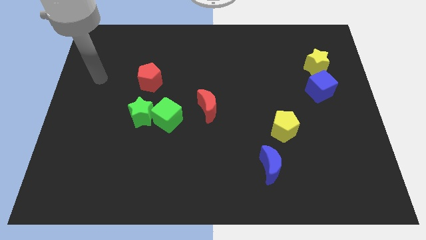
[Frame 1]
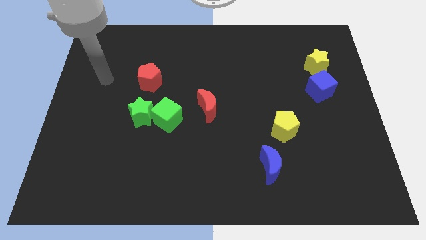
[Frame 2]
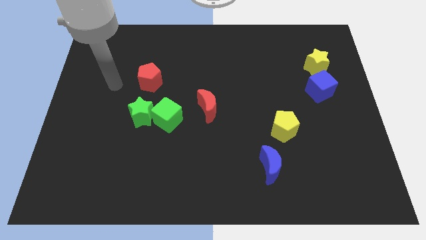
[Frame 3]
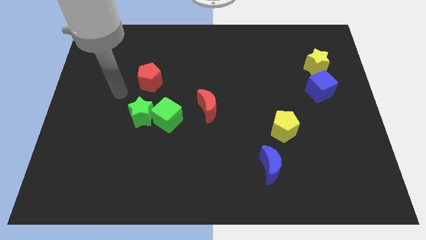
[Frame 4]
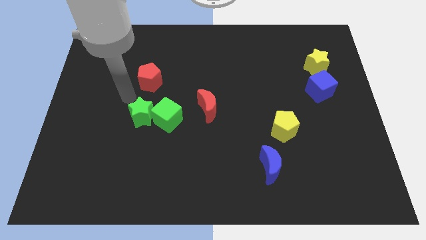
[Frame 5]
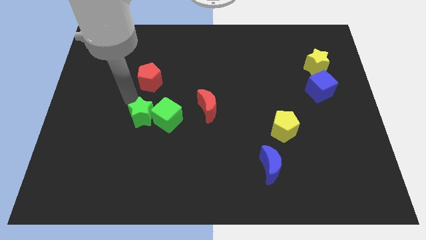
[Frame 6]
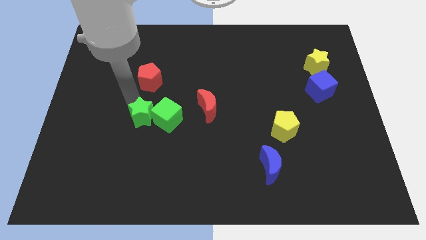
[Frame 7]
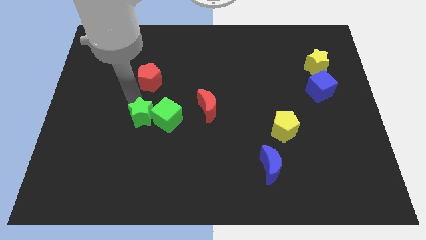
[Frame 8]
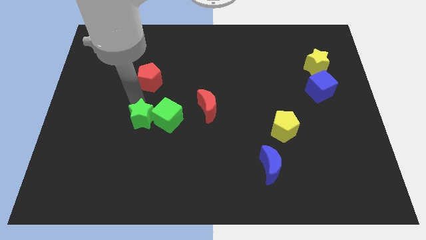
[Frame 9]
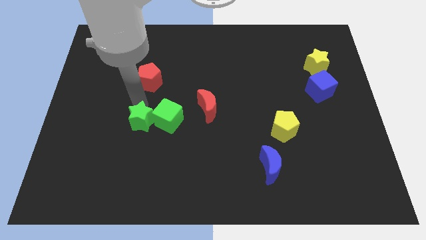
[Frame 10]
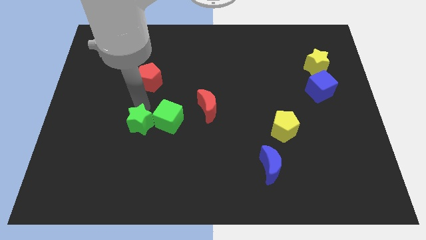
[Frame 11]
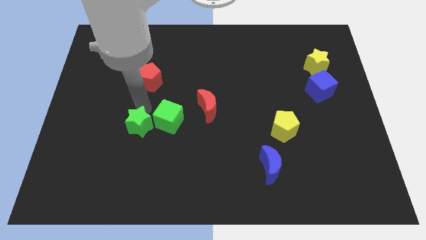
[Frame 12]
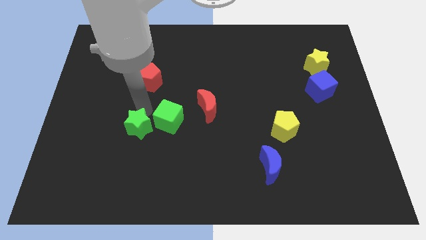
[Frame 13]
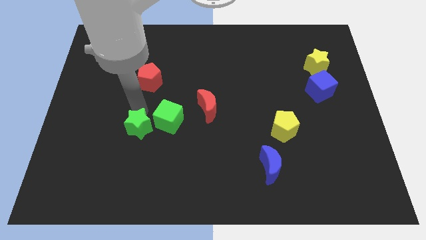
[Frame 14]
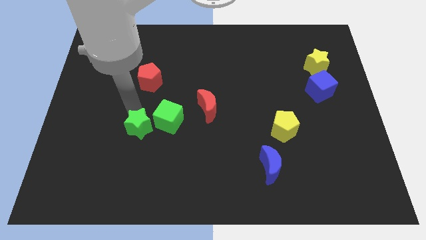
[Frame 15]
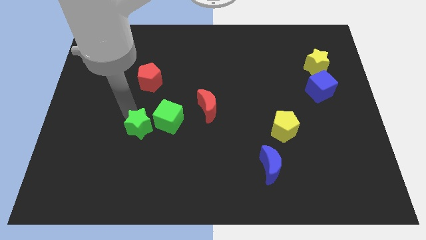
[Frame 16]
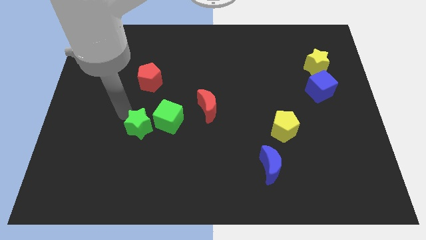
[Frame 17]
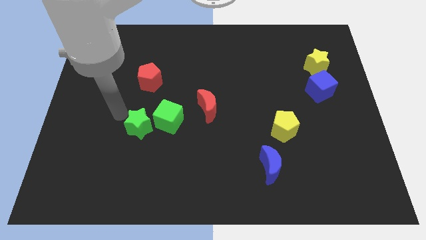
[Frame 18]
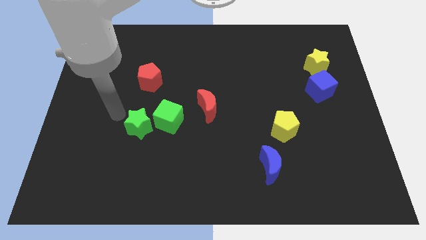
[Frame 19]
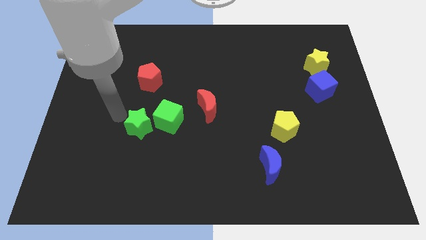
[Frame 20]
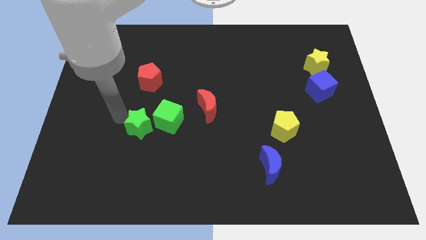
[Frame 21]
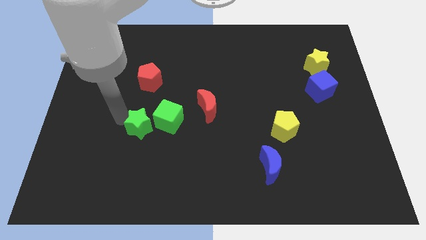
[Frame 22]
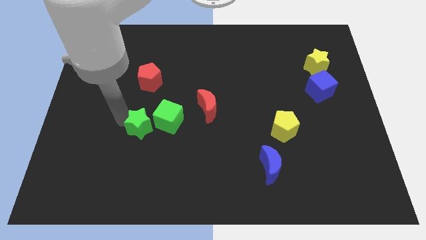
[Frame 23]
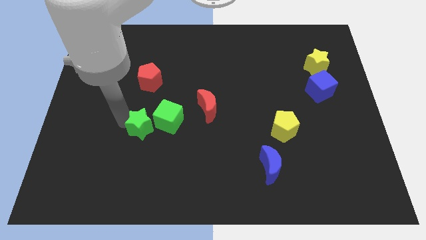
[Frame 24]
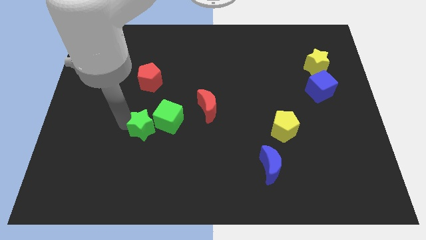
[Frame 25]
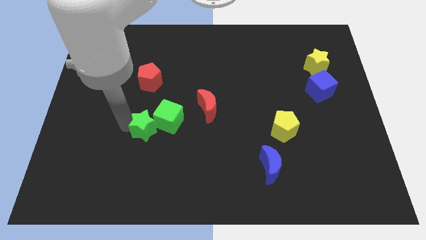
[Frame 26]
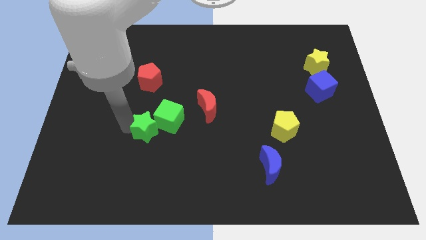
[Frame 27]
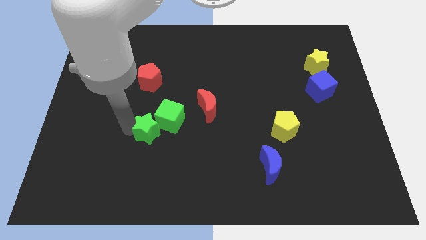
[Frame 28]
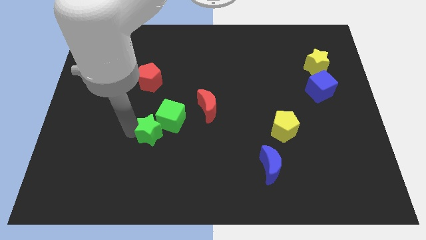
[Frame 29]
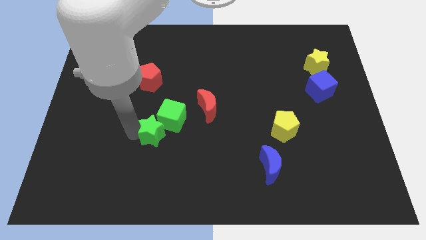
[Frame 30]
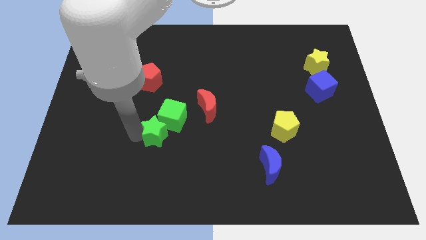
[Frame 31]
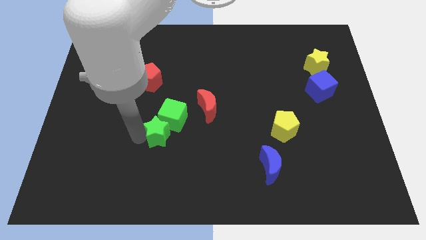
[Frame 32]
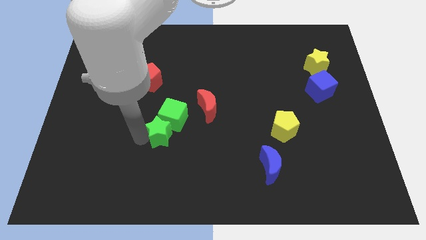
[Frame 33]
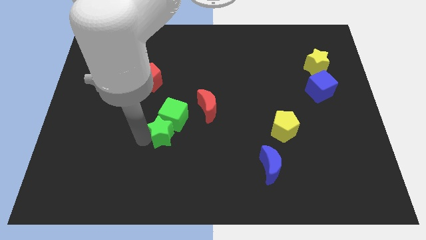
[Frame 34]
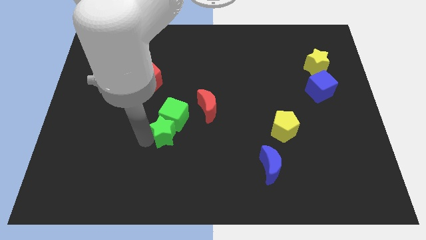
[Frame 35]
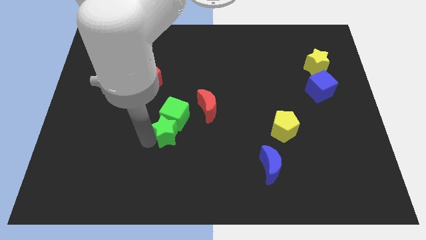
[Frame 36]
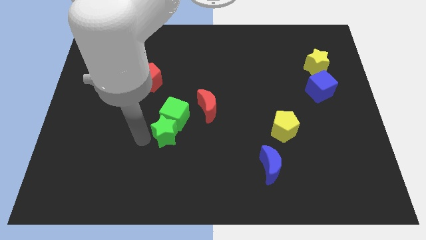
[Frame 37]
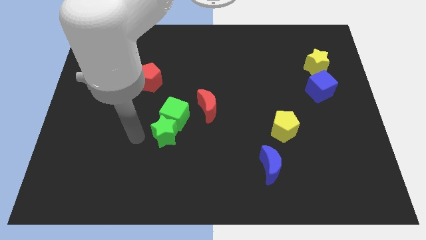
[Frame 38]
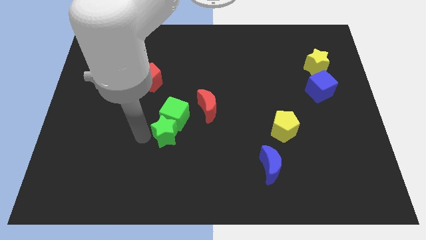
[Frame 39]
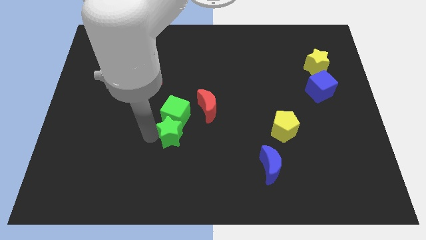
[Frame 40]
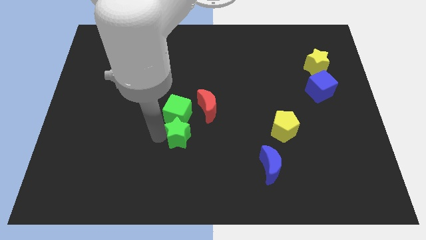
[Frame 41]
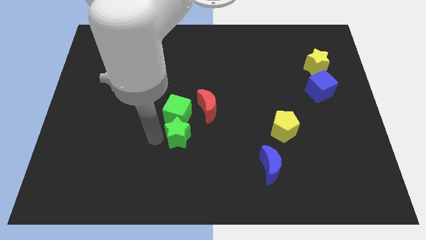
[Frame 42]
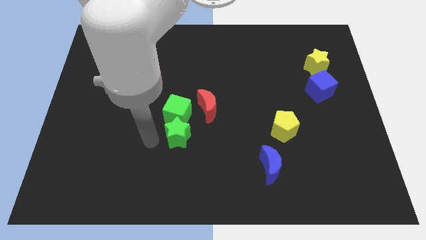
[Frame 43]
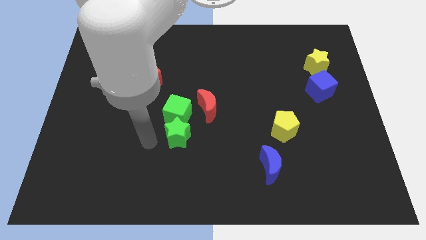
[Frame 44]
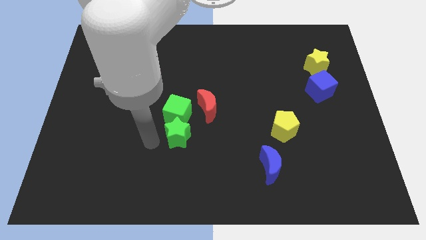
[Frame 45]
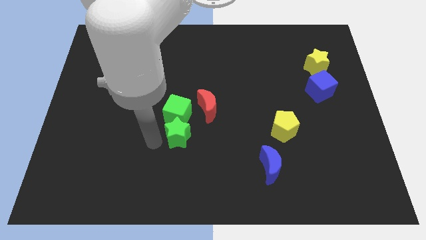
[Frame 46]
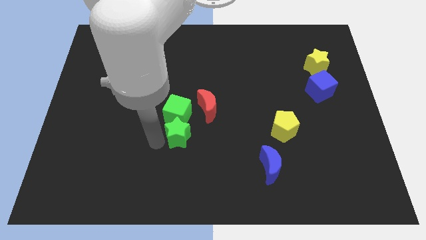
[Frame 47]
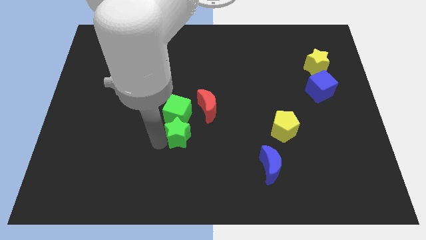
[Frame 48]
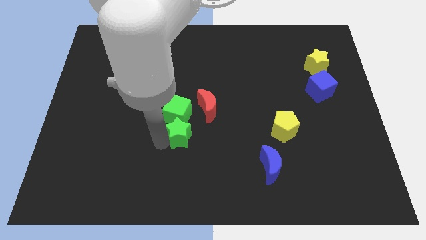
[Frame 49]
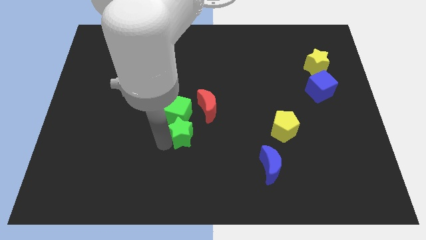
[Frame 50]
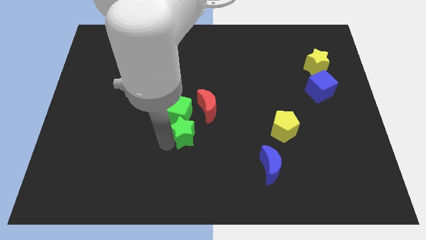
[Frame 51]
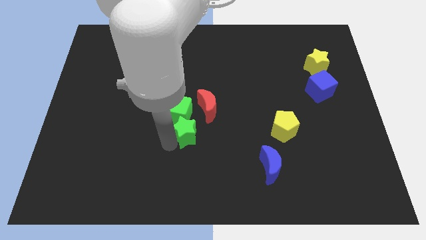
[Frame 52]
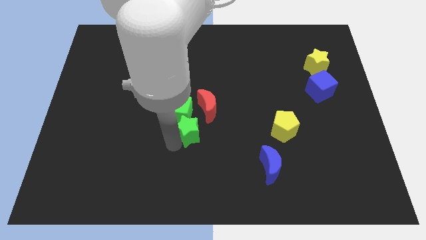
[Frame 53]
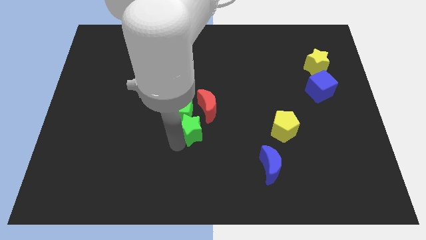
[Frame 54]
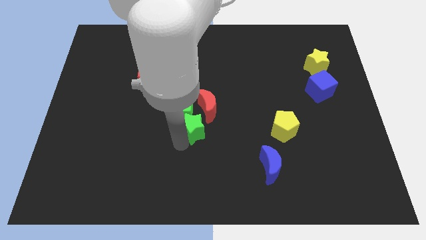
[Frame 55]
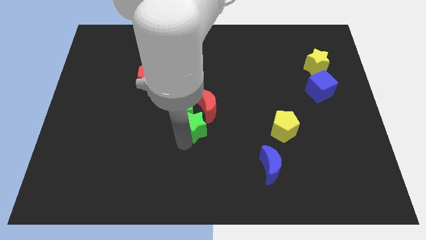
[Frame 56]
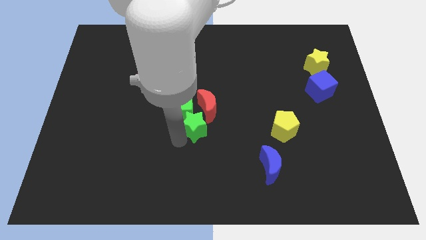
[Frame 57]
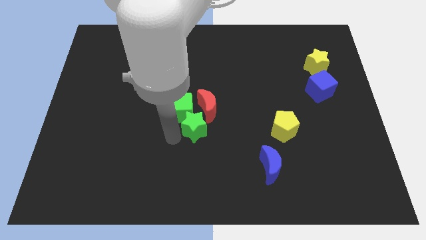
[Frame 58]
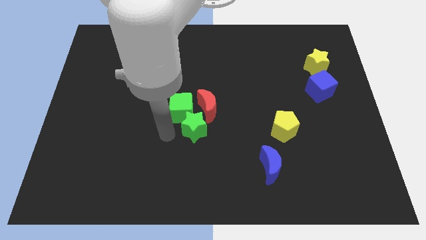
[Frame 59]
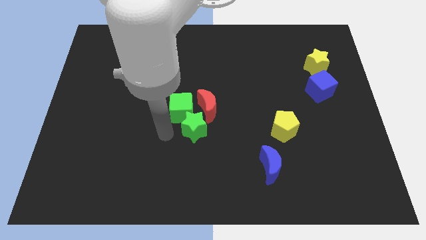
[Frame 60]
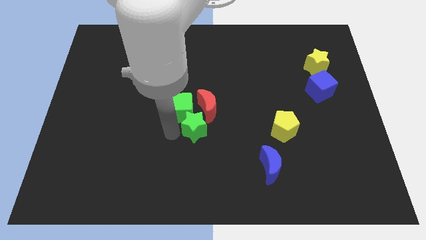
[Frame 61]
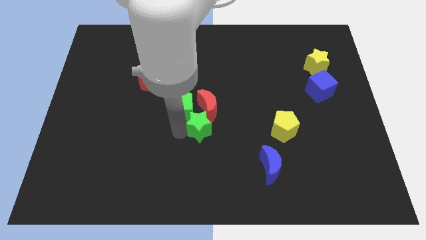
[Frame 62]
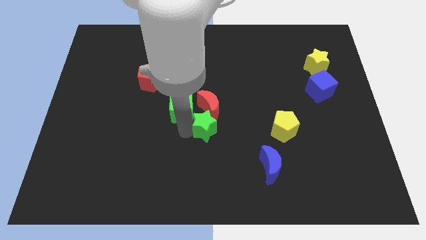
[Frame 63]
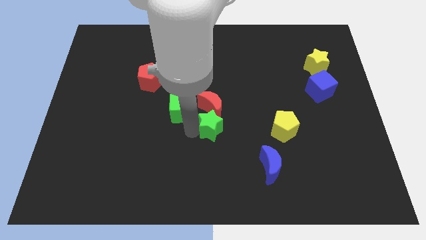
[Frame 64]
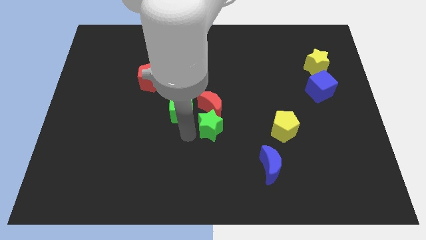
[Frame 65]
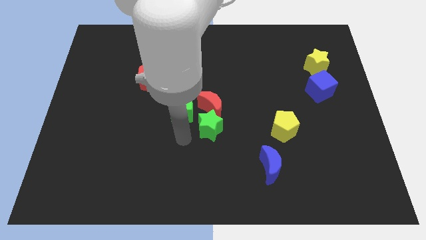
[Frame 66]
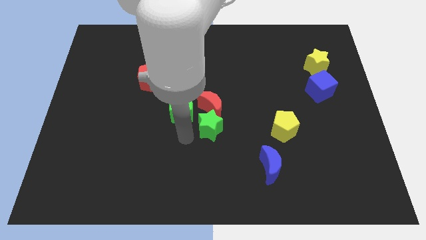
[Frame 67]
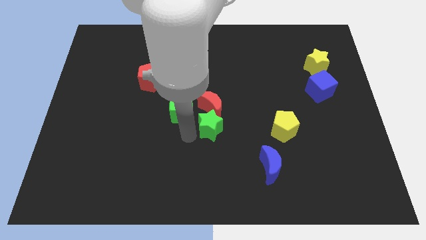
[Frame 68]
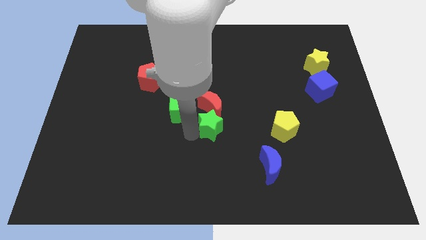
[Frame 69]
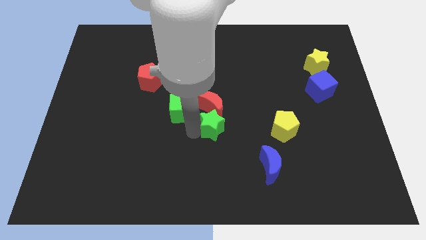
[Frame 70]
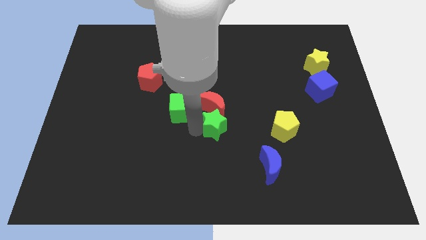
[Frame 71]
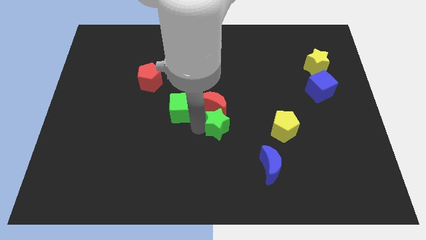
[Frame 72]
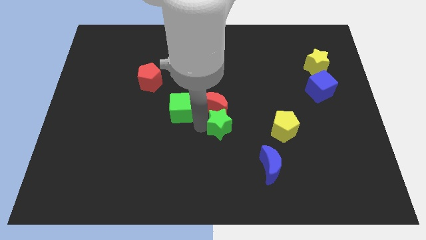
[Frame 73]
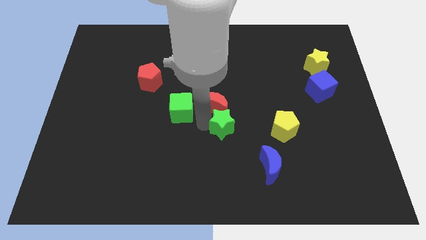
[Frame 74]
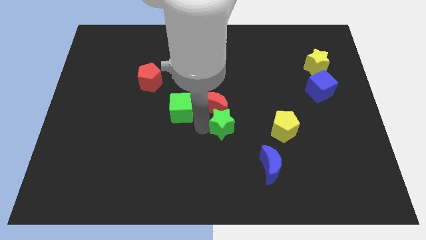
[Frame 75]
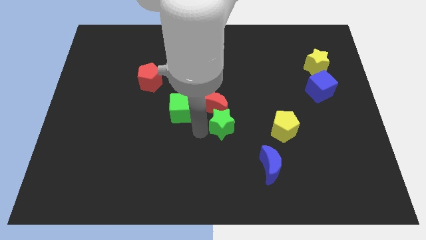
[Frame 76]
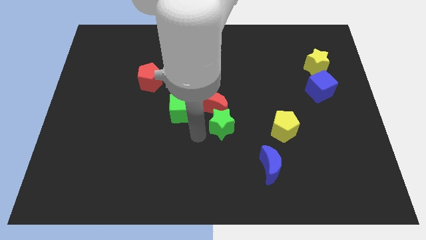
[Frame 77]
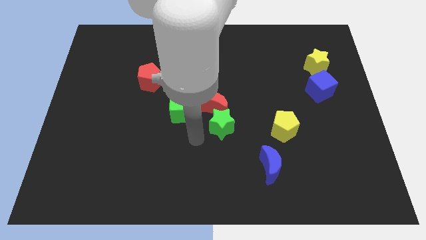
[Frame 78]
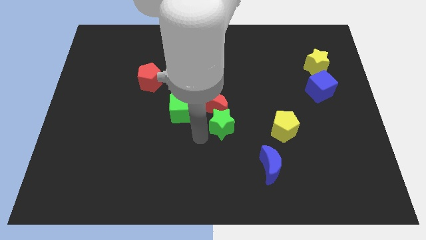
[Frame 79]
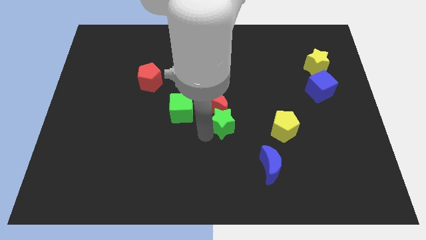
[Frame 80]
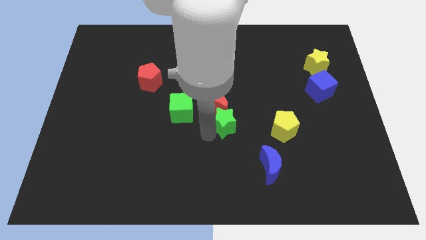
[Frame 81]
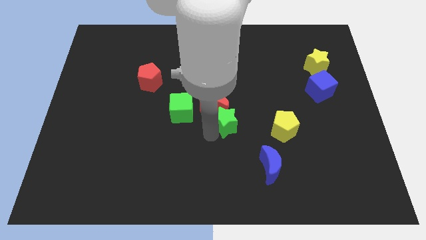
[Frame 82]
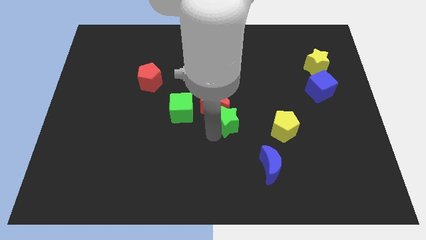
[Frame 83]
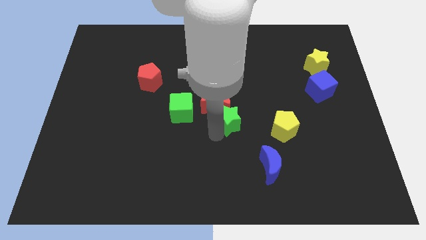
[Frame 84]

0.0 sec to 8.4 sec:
move the green star to the right
